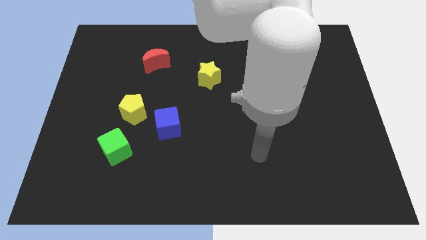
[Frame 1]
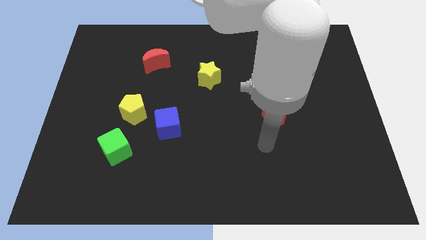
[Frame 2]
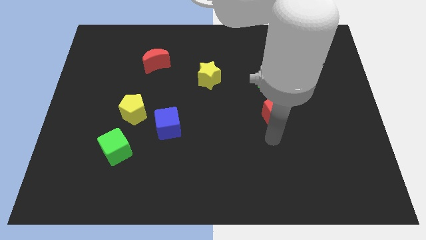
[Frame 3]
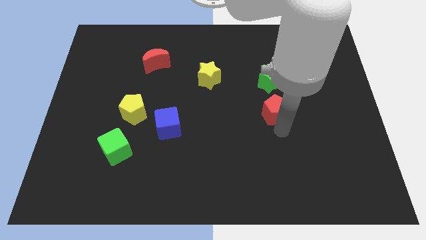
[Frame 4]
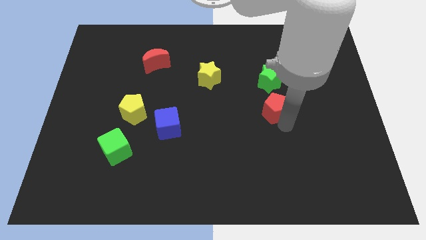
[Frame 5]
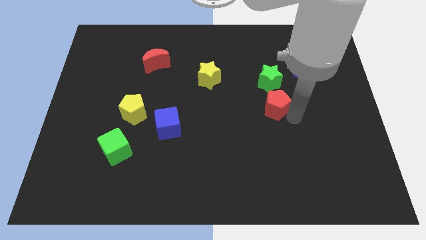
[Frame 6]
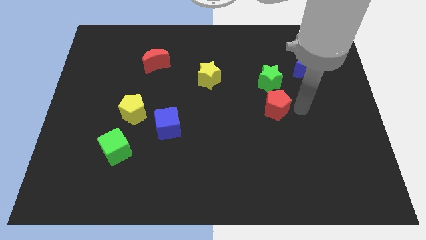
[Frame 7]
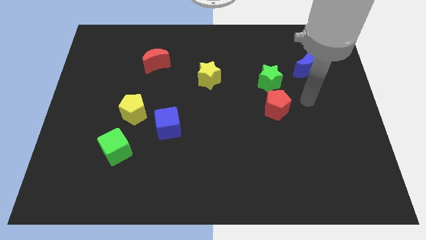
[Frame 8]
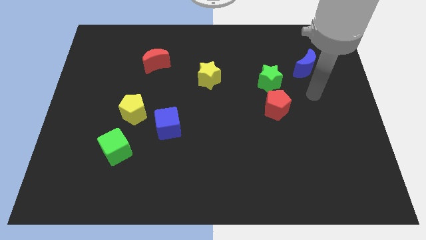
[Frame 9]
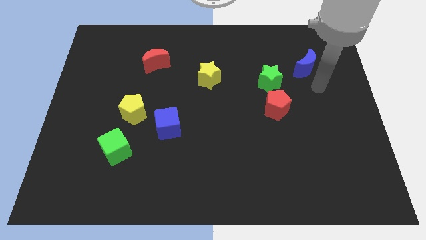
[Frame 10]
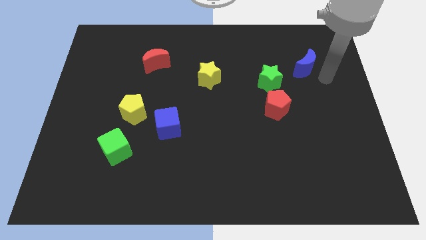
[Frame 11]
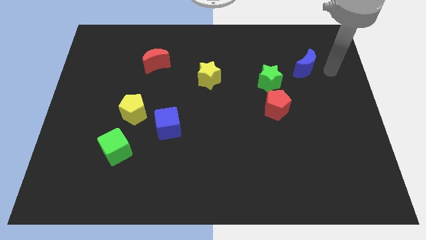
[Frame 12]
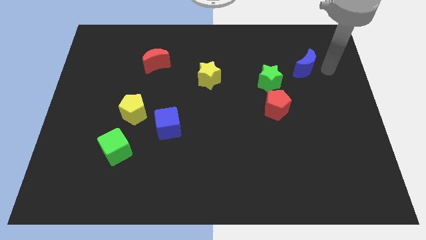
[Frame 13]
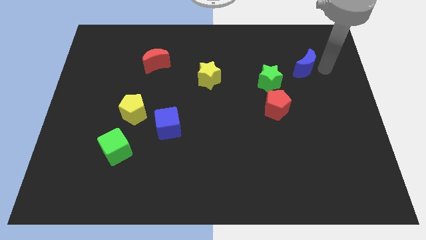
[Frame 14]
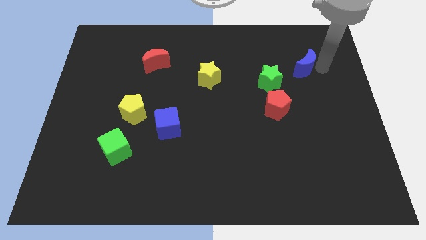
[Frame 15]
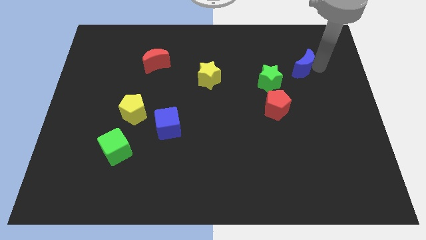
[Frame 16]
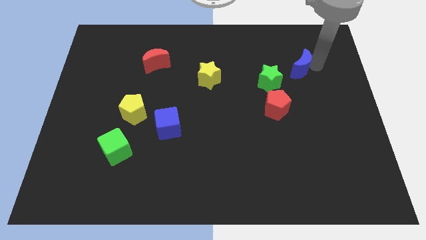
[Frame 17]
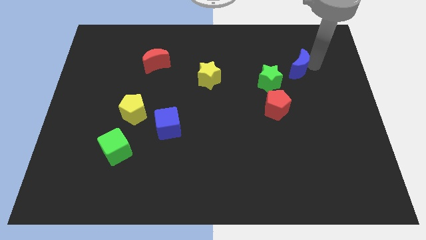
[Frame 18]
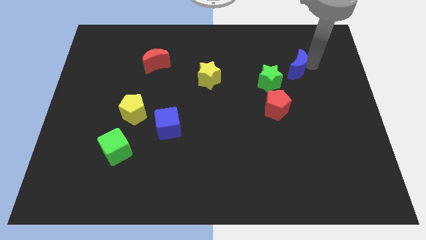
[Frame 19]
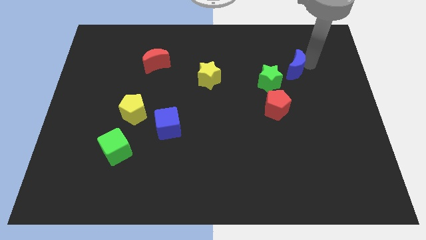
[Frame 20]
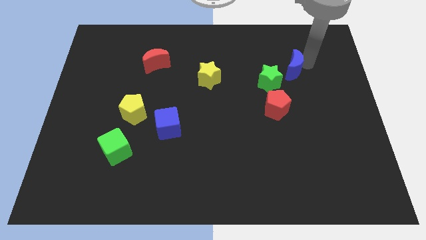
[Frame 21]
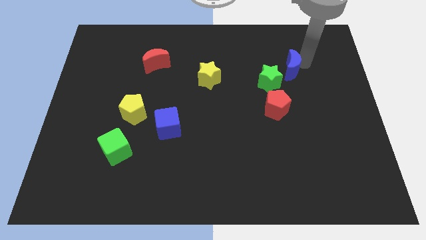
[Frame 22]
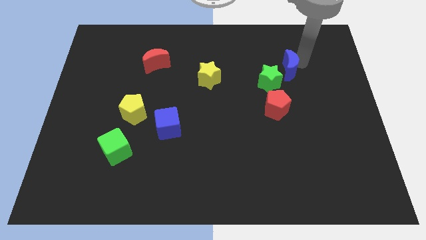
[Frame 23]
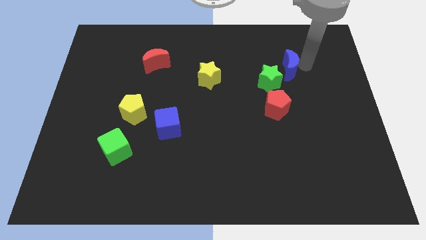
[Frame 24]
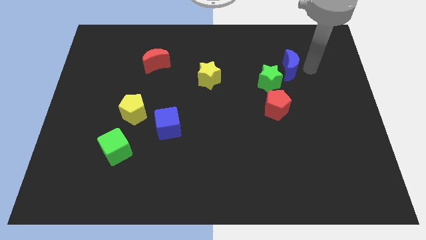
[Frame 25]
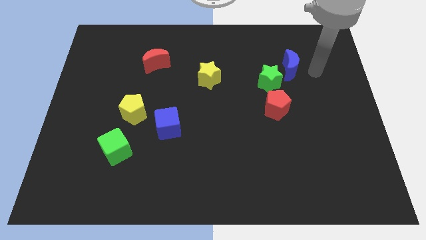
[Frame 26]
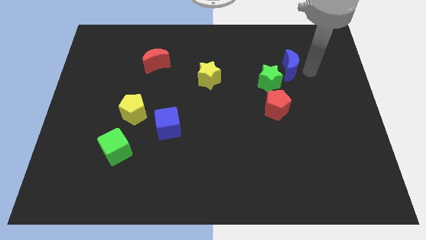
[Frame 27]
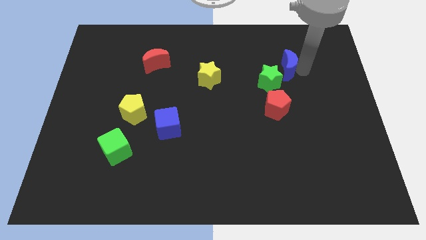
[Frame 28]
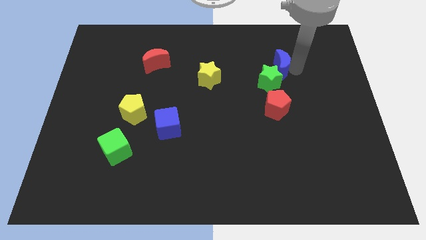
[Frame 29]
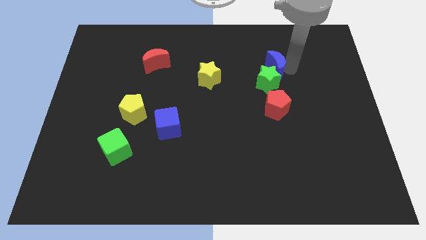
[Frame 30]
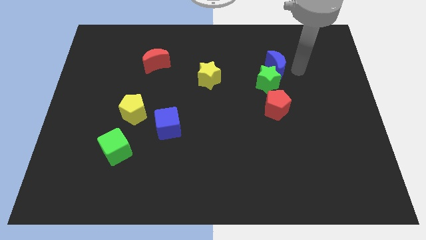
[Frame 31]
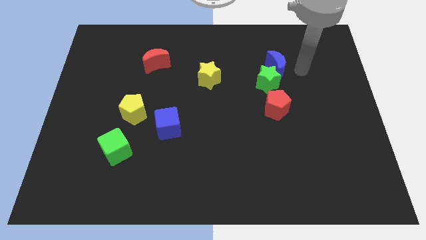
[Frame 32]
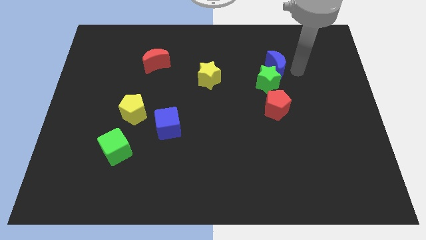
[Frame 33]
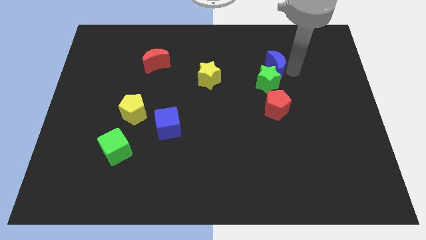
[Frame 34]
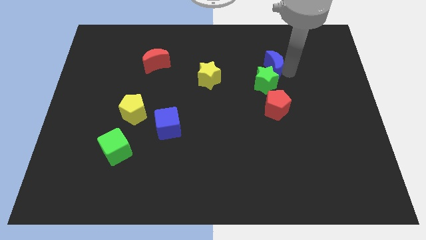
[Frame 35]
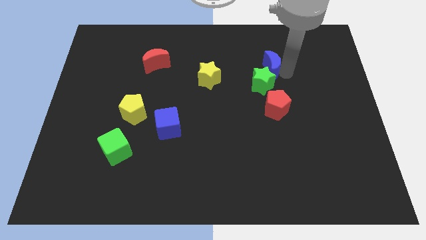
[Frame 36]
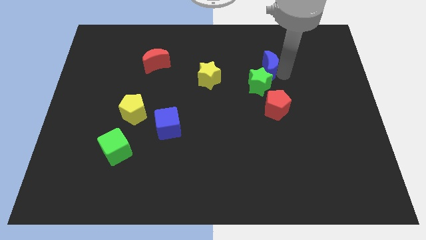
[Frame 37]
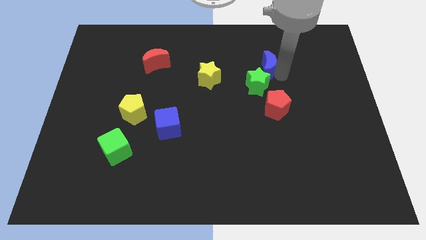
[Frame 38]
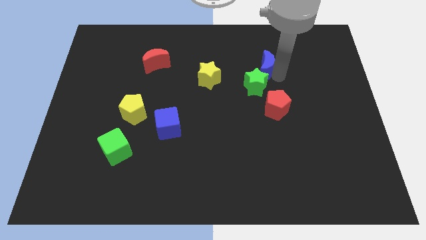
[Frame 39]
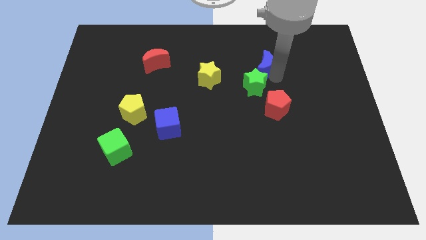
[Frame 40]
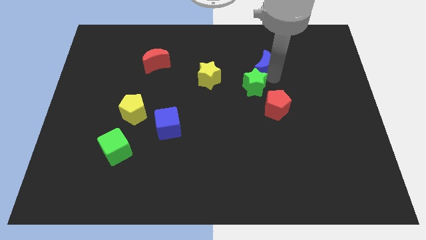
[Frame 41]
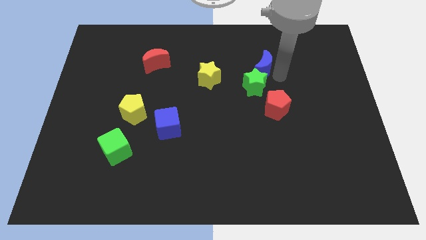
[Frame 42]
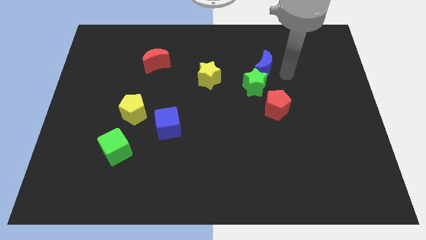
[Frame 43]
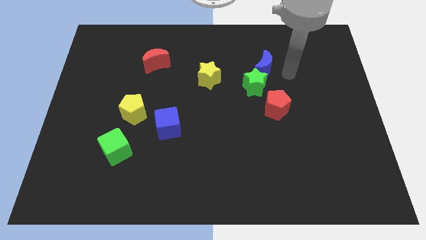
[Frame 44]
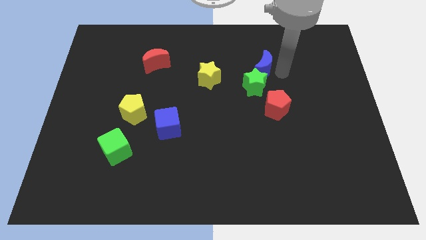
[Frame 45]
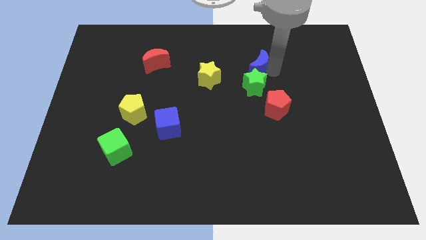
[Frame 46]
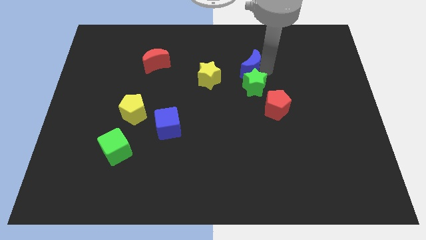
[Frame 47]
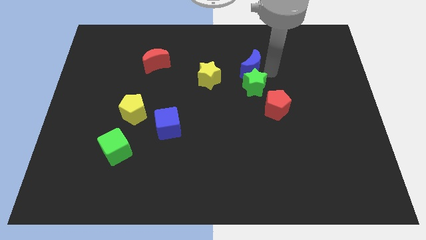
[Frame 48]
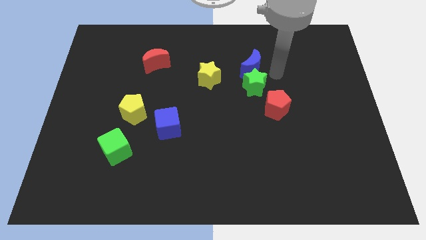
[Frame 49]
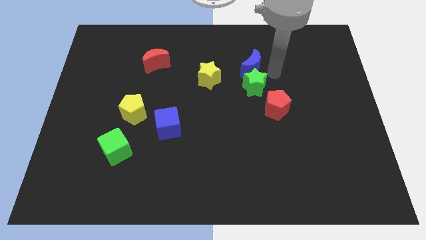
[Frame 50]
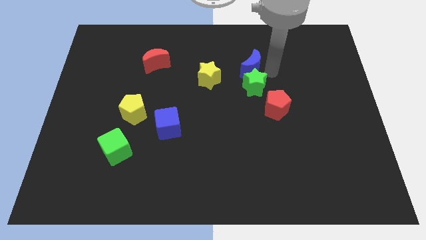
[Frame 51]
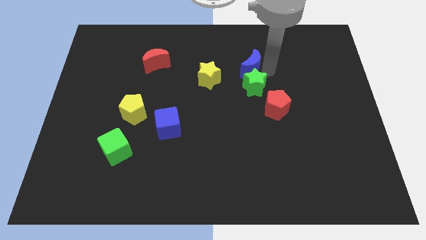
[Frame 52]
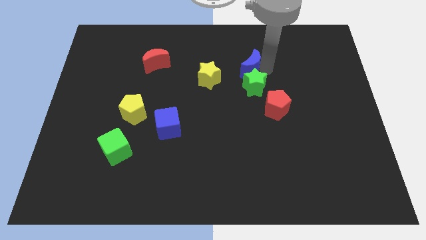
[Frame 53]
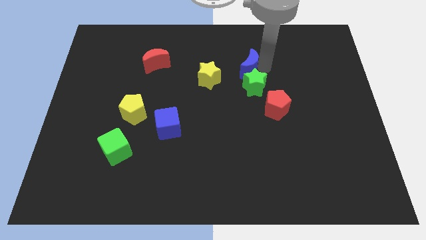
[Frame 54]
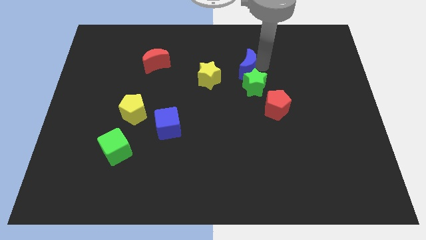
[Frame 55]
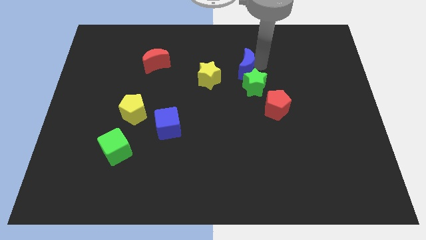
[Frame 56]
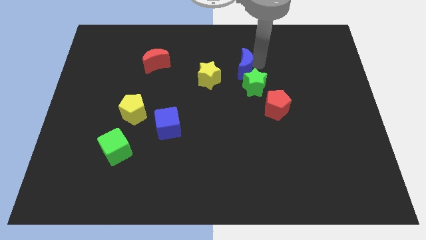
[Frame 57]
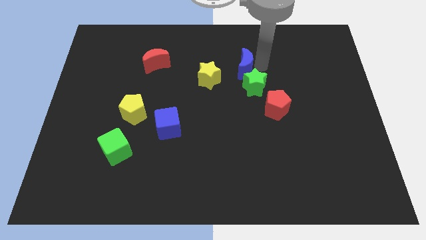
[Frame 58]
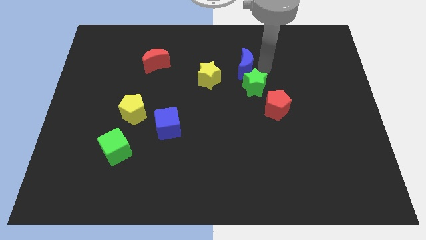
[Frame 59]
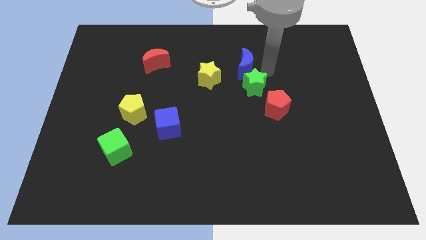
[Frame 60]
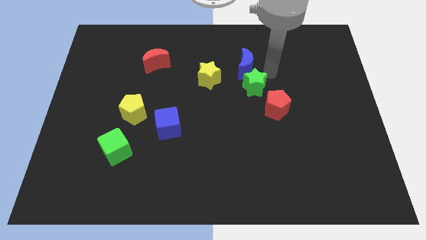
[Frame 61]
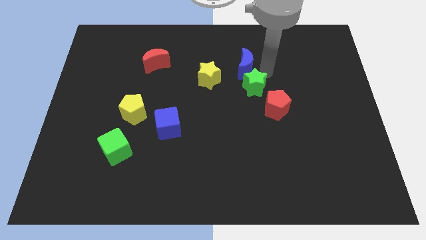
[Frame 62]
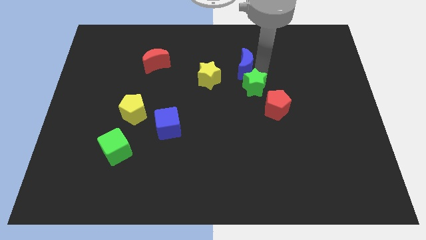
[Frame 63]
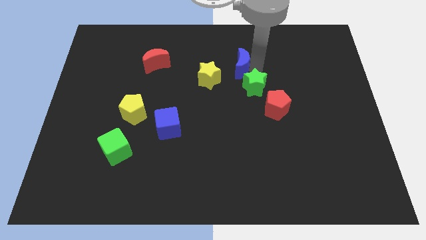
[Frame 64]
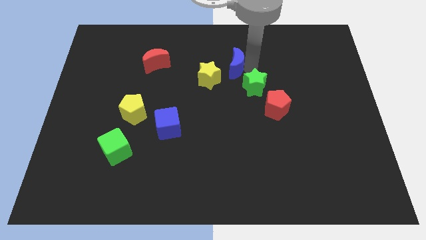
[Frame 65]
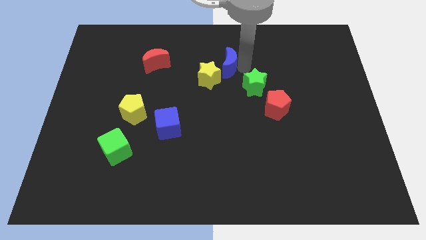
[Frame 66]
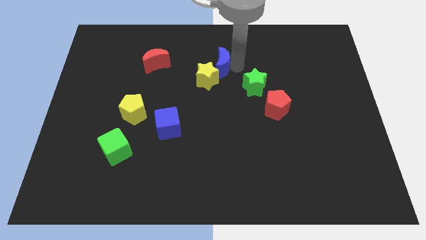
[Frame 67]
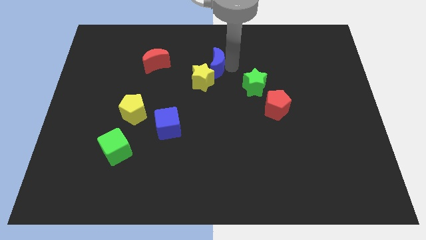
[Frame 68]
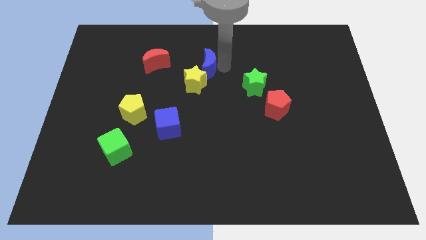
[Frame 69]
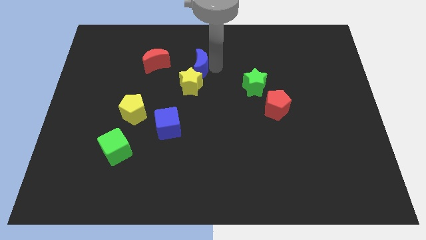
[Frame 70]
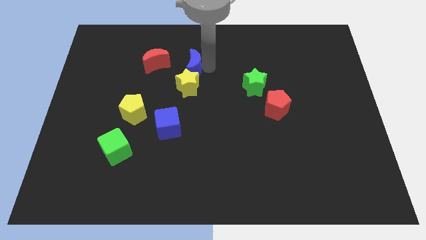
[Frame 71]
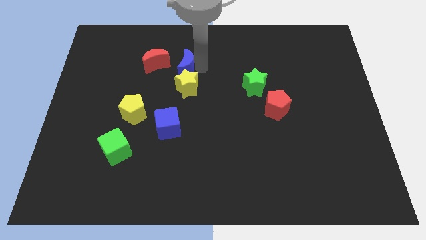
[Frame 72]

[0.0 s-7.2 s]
push the blue moon diagonally up and to the left of the yellow star
